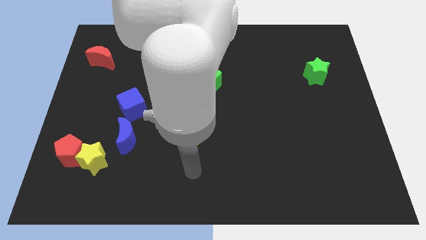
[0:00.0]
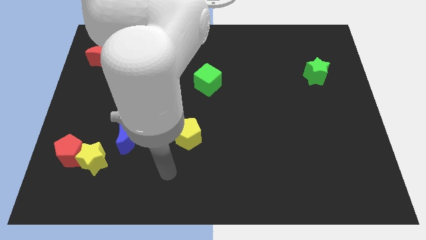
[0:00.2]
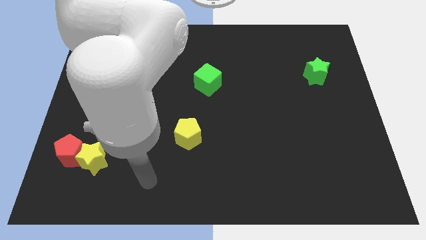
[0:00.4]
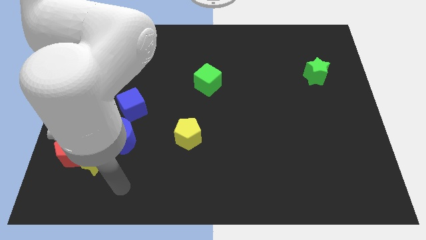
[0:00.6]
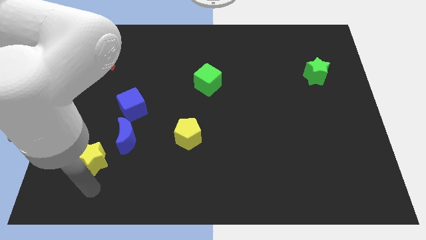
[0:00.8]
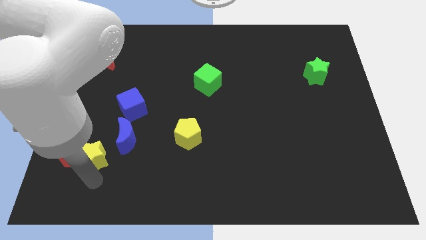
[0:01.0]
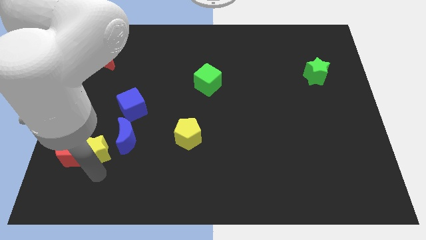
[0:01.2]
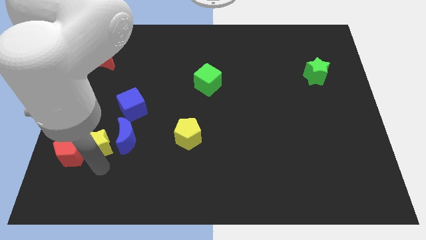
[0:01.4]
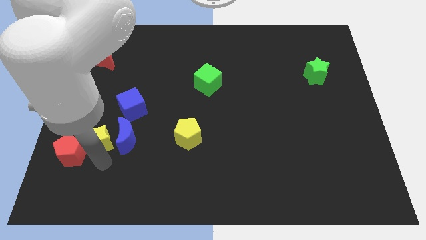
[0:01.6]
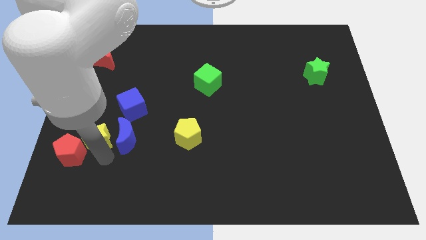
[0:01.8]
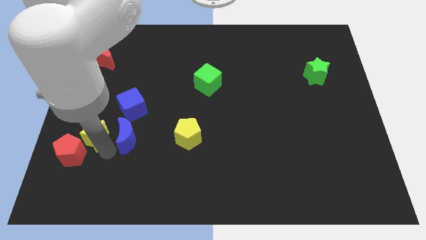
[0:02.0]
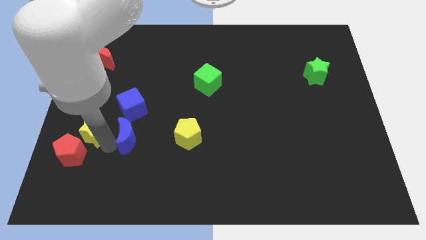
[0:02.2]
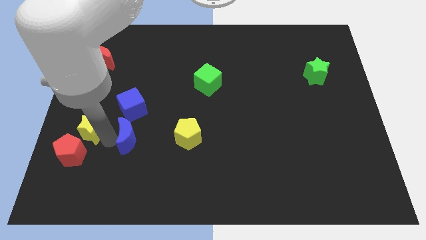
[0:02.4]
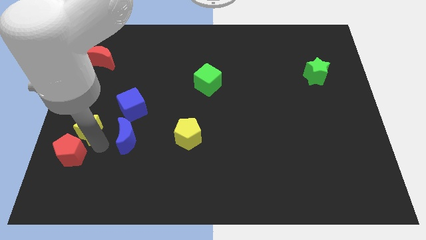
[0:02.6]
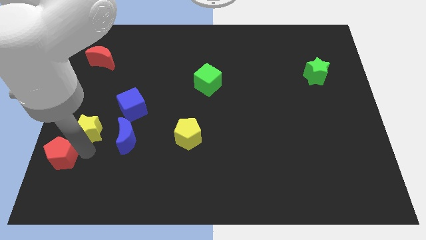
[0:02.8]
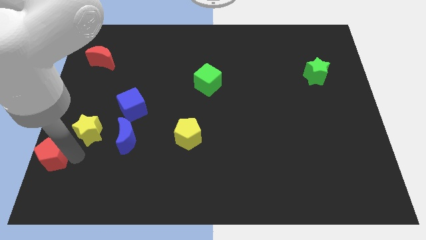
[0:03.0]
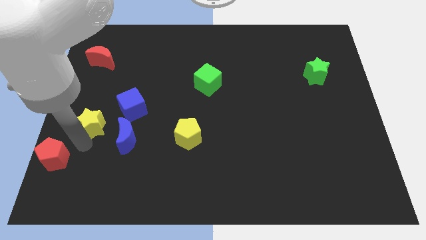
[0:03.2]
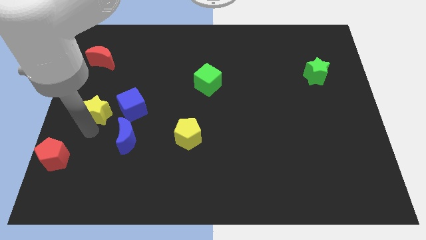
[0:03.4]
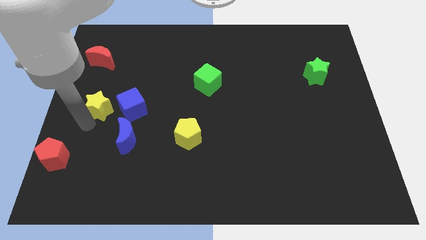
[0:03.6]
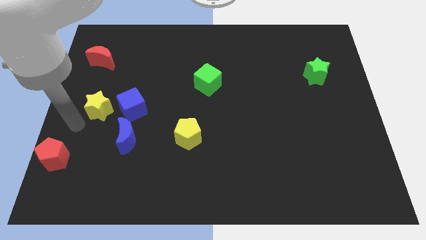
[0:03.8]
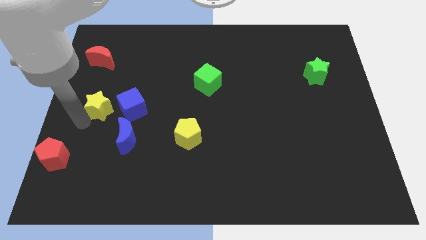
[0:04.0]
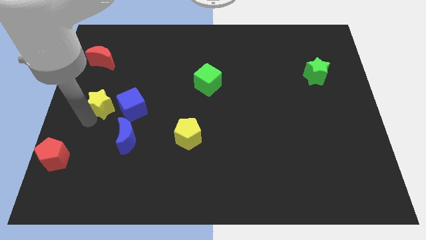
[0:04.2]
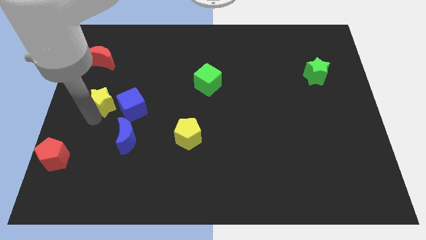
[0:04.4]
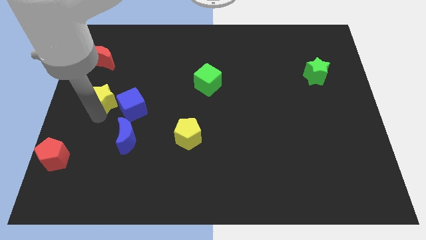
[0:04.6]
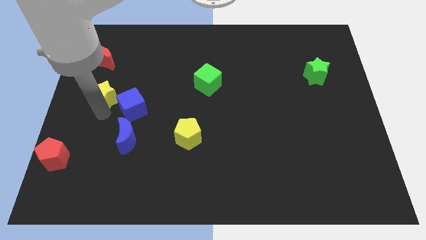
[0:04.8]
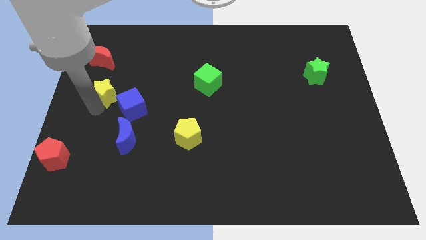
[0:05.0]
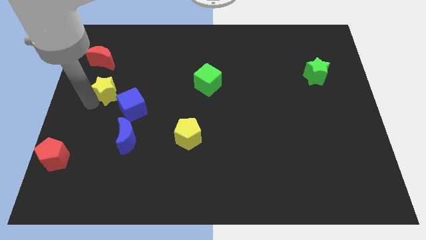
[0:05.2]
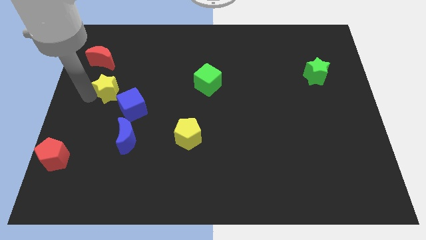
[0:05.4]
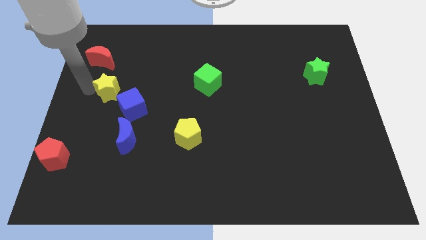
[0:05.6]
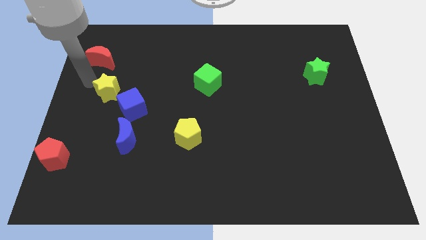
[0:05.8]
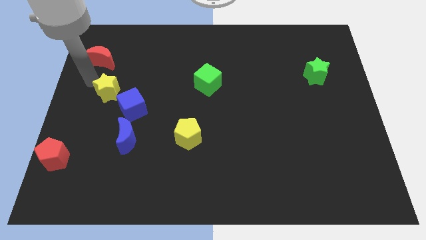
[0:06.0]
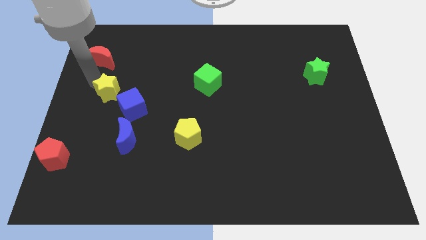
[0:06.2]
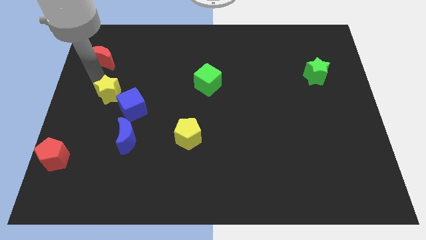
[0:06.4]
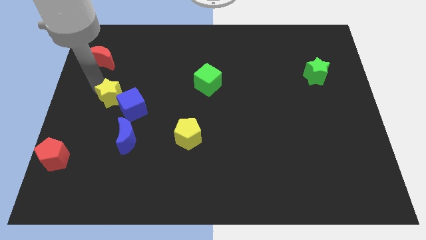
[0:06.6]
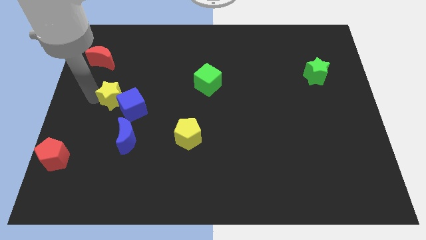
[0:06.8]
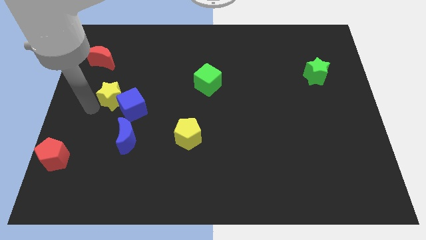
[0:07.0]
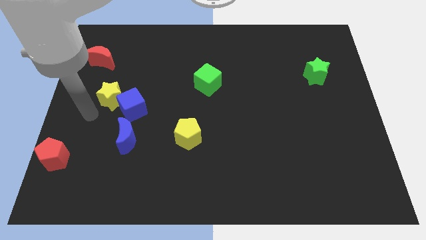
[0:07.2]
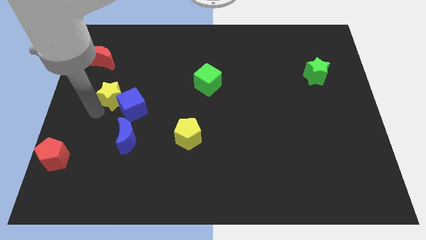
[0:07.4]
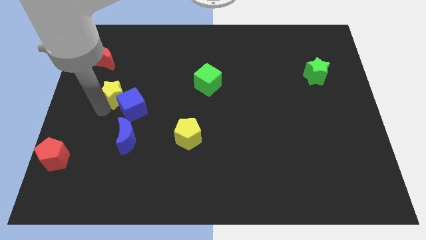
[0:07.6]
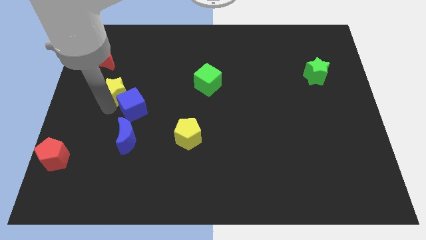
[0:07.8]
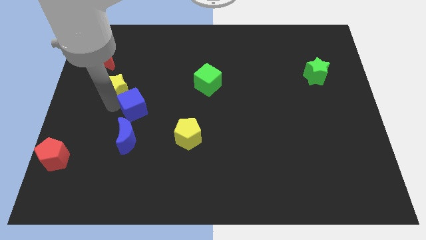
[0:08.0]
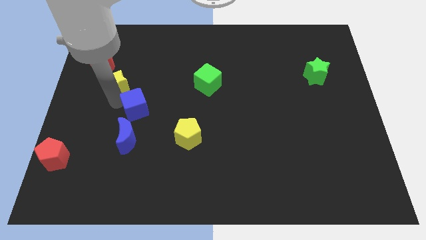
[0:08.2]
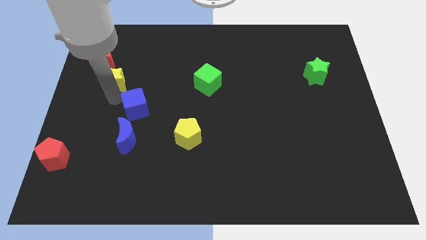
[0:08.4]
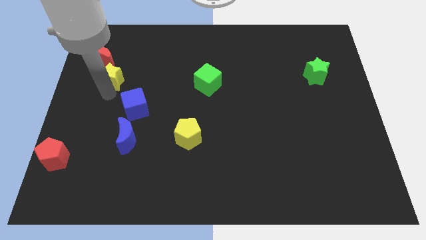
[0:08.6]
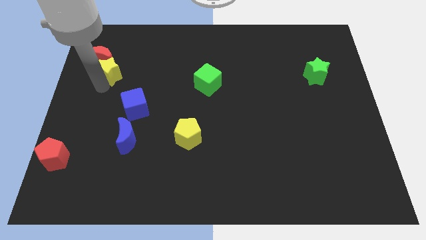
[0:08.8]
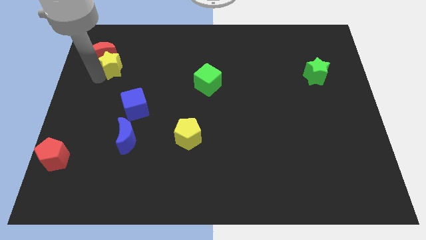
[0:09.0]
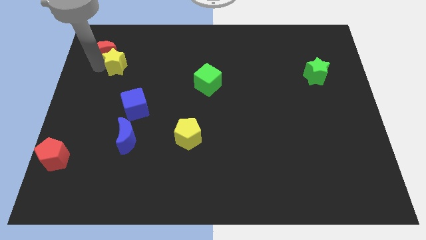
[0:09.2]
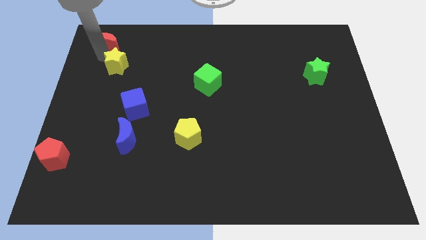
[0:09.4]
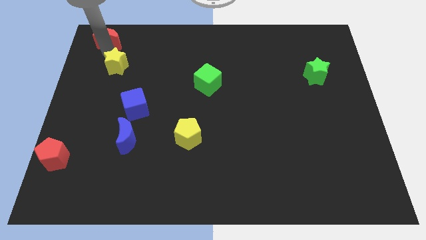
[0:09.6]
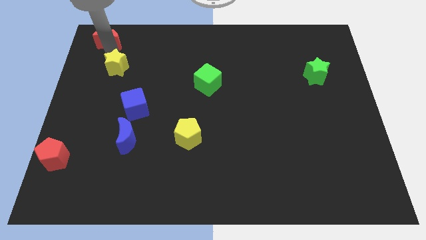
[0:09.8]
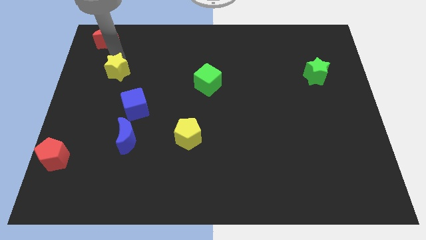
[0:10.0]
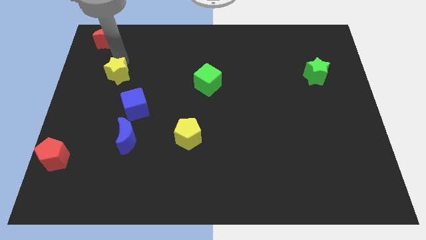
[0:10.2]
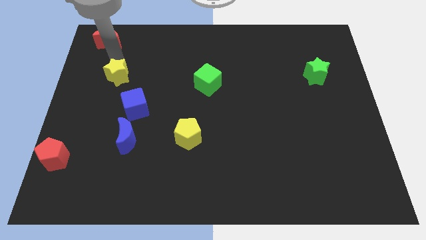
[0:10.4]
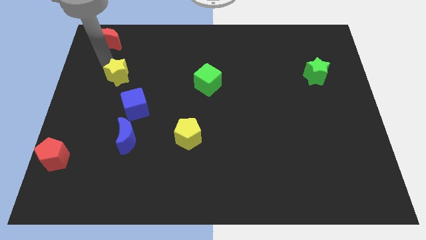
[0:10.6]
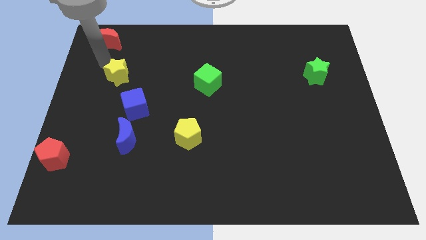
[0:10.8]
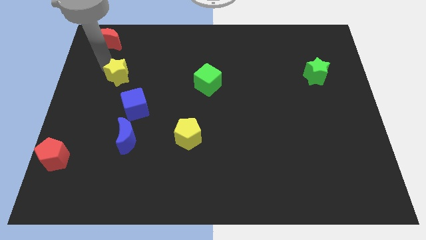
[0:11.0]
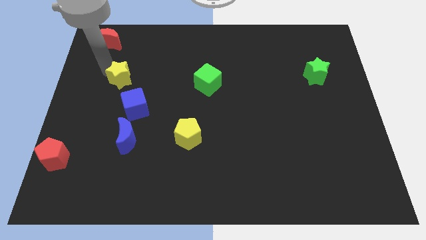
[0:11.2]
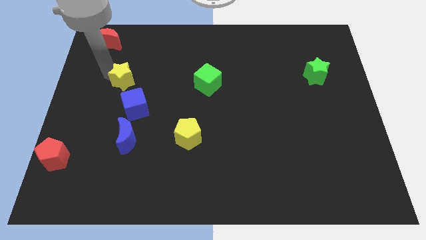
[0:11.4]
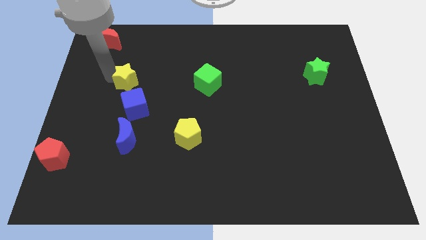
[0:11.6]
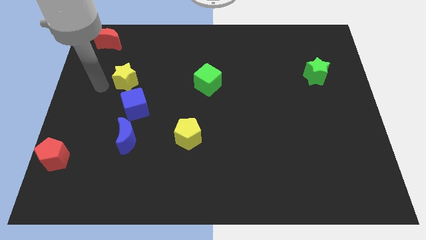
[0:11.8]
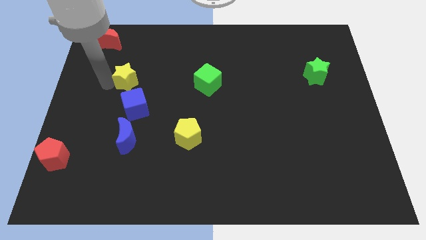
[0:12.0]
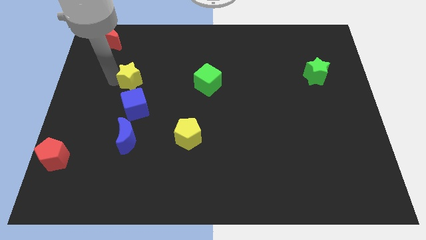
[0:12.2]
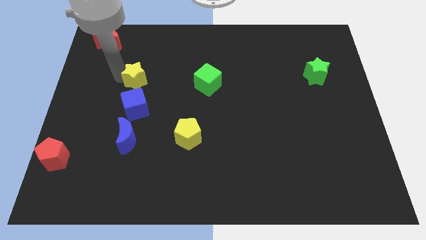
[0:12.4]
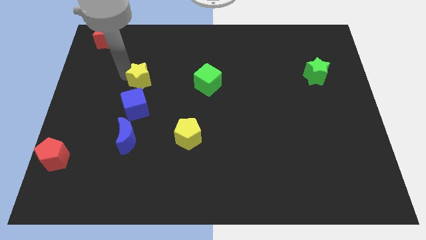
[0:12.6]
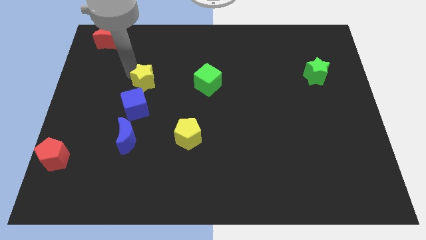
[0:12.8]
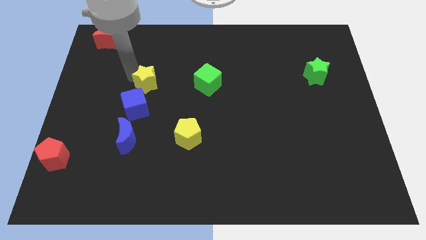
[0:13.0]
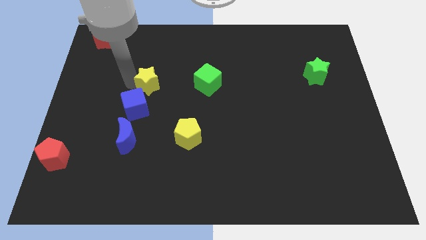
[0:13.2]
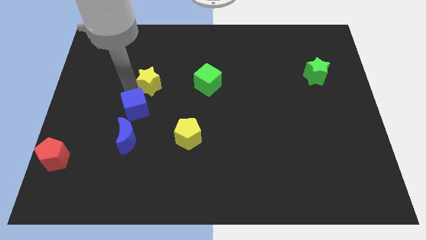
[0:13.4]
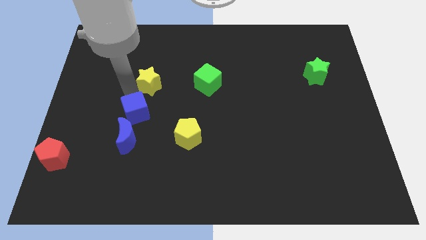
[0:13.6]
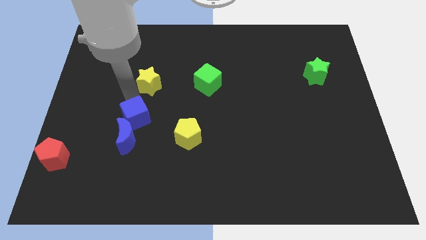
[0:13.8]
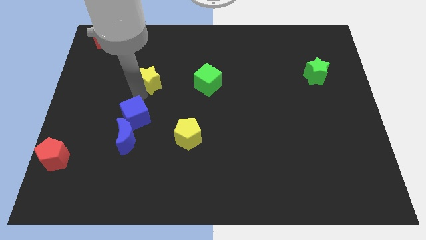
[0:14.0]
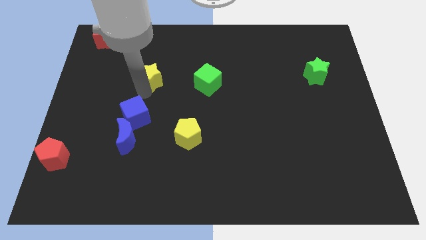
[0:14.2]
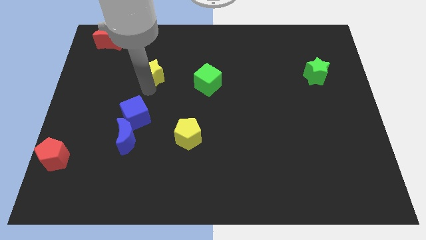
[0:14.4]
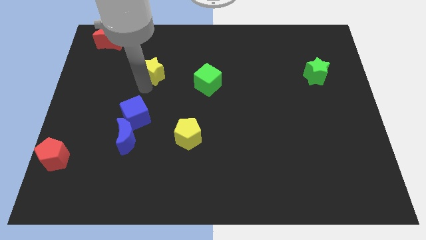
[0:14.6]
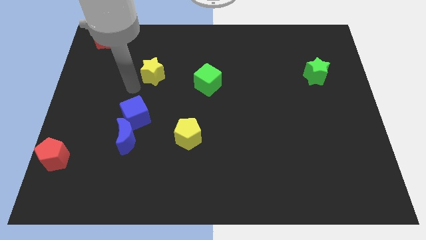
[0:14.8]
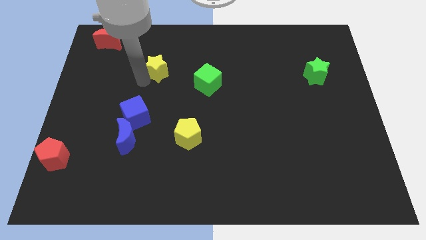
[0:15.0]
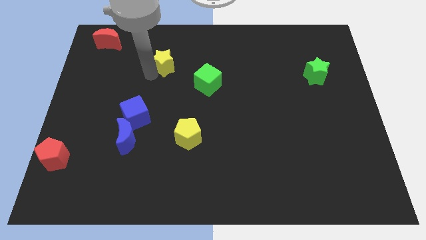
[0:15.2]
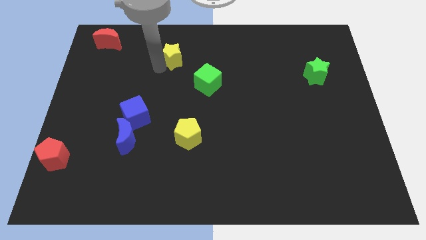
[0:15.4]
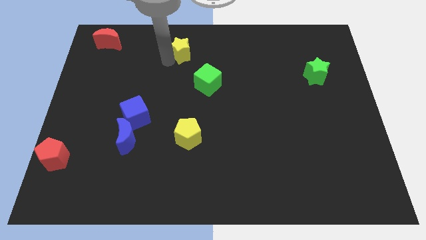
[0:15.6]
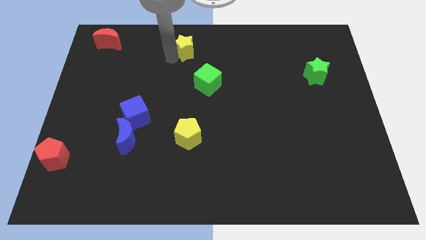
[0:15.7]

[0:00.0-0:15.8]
push the yellow star to the top side
